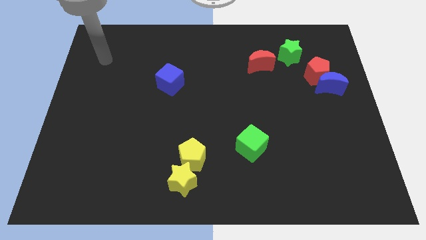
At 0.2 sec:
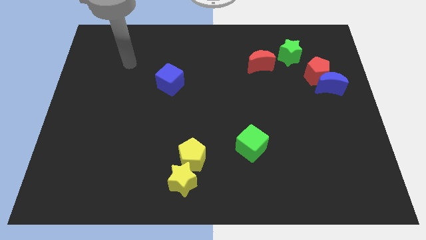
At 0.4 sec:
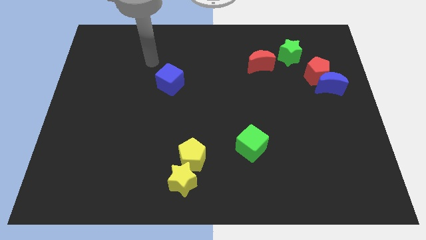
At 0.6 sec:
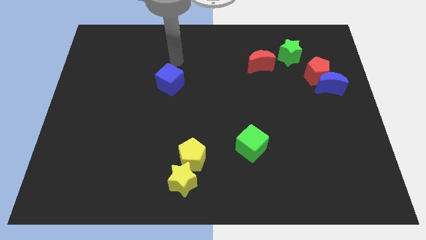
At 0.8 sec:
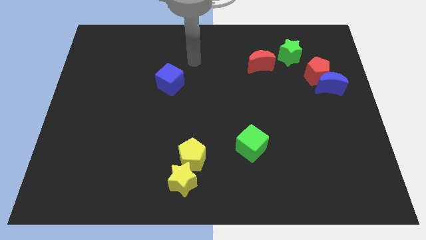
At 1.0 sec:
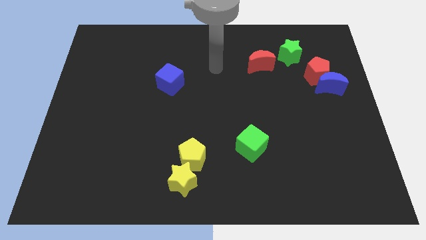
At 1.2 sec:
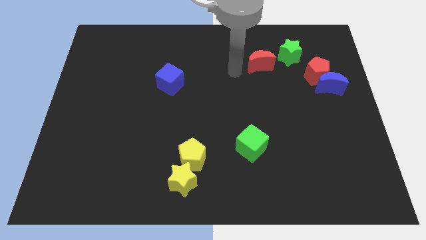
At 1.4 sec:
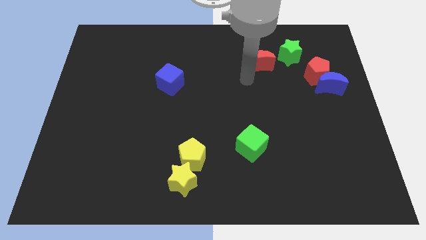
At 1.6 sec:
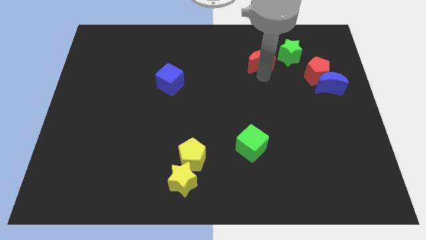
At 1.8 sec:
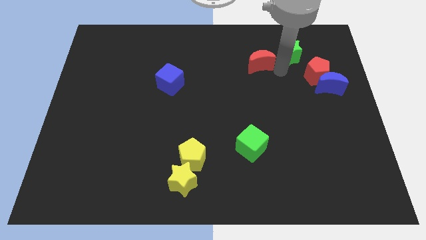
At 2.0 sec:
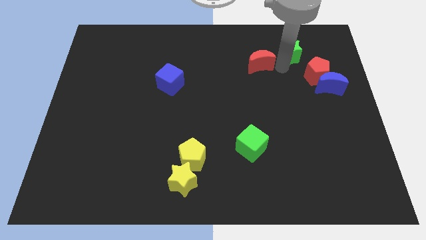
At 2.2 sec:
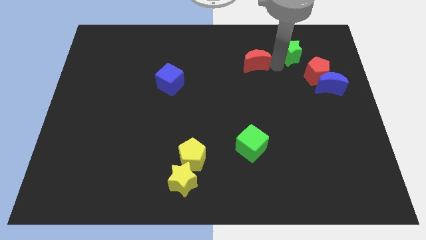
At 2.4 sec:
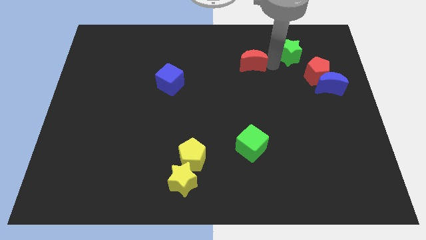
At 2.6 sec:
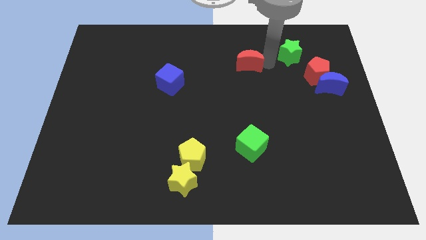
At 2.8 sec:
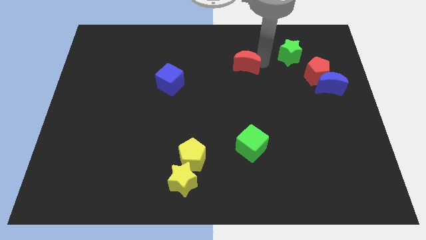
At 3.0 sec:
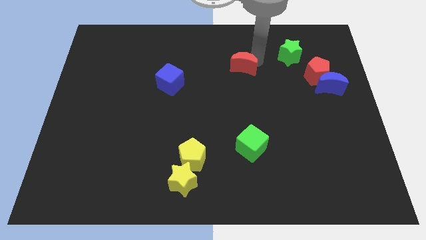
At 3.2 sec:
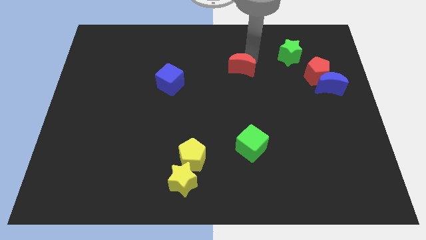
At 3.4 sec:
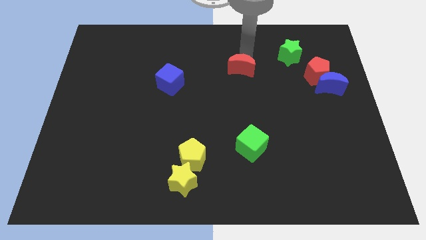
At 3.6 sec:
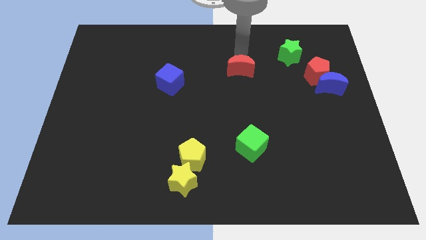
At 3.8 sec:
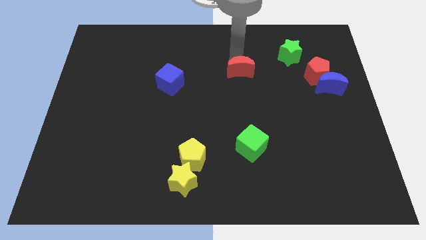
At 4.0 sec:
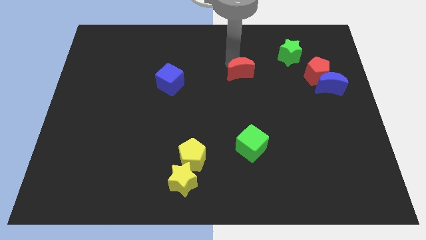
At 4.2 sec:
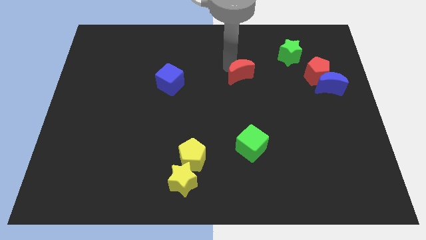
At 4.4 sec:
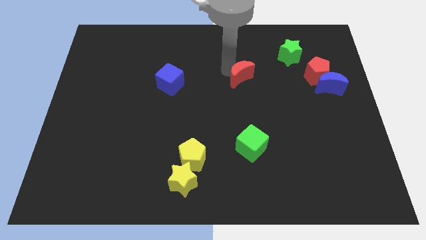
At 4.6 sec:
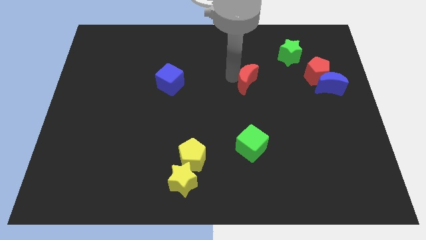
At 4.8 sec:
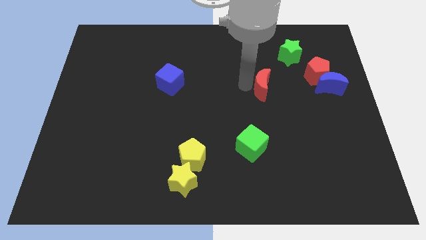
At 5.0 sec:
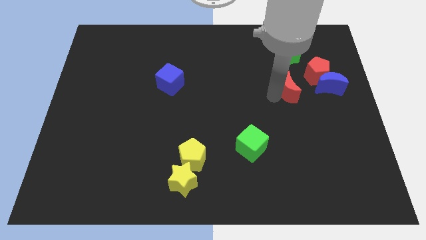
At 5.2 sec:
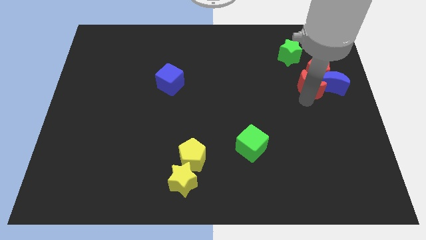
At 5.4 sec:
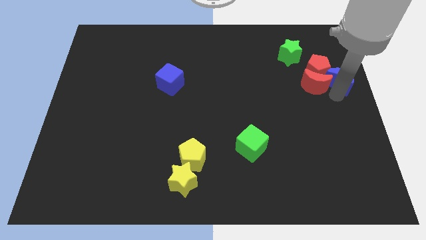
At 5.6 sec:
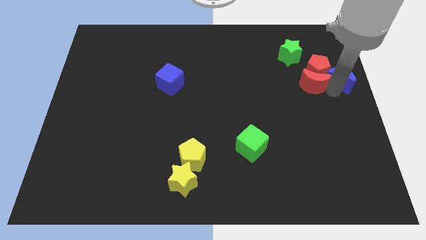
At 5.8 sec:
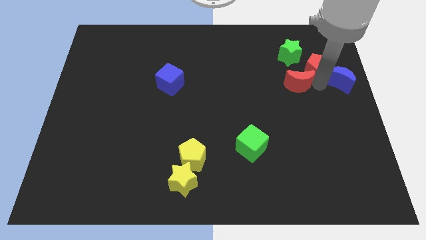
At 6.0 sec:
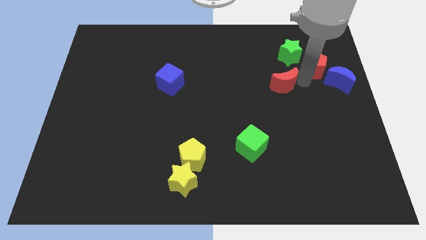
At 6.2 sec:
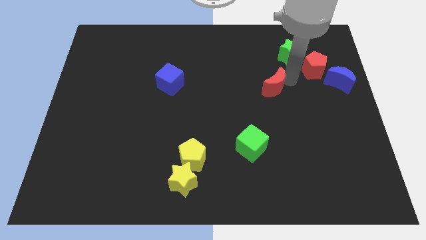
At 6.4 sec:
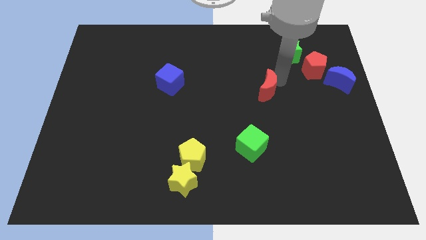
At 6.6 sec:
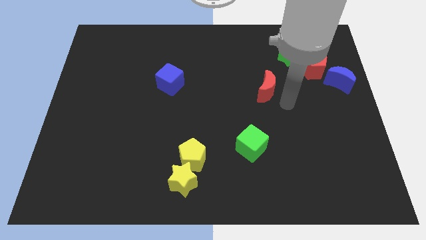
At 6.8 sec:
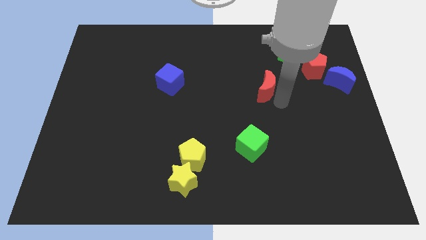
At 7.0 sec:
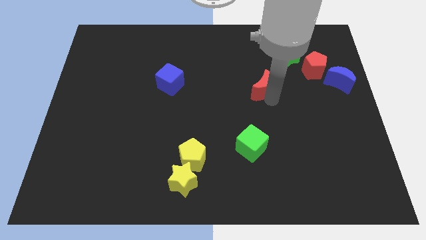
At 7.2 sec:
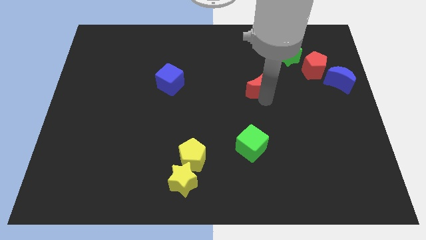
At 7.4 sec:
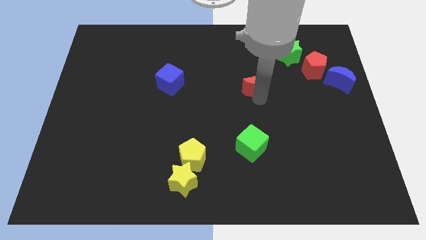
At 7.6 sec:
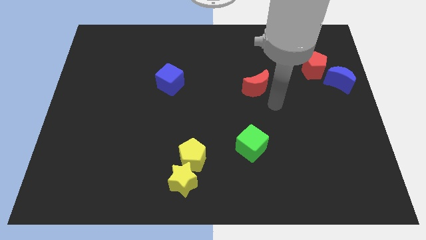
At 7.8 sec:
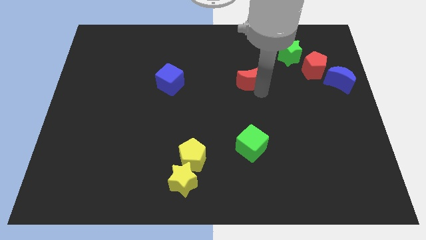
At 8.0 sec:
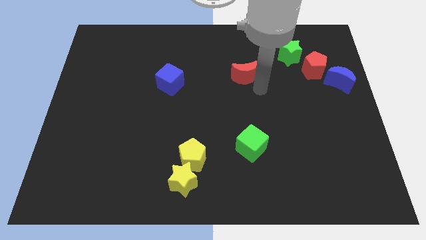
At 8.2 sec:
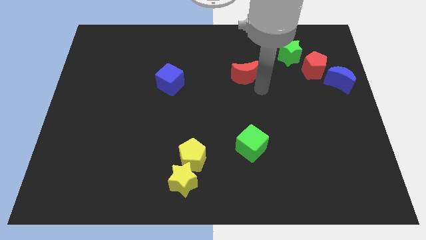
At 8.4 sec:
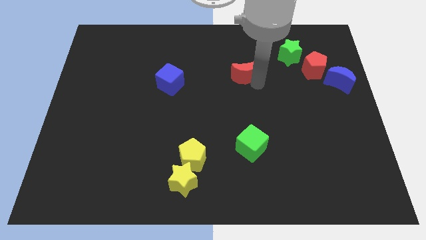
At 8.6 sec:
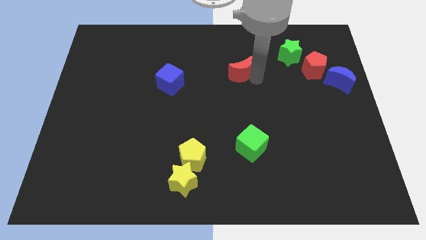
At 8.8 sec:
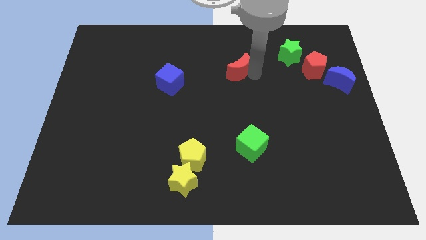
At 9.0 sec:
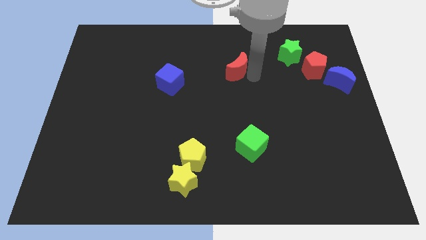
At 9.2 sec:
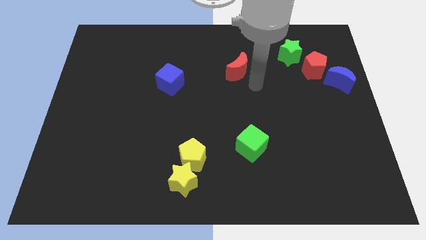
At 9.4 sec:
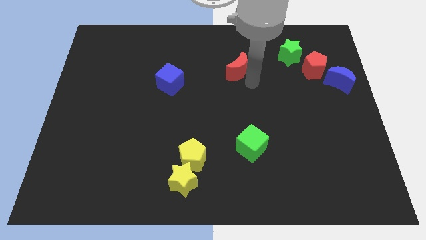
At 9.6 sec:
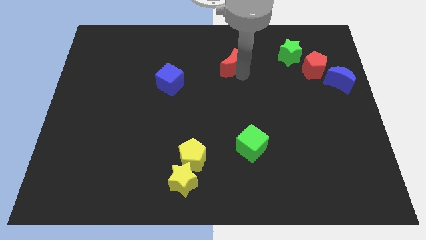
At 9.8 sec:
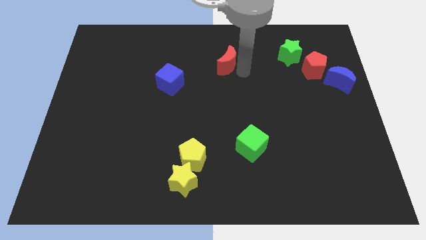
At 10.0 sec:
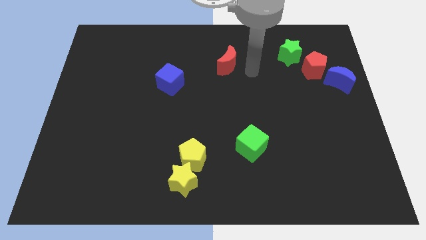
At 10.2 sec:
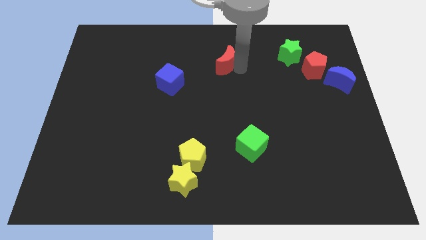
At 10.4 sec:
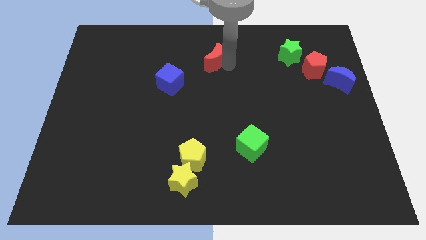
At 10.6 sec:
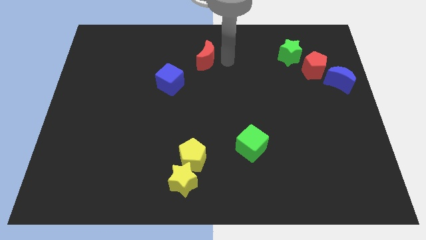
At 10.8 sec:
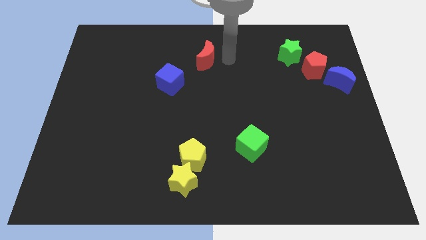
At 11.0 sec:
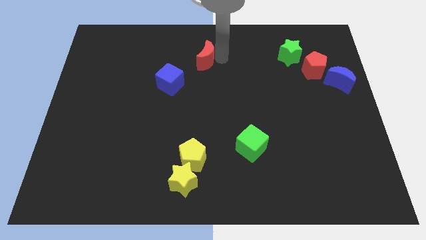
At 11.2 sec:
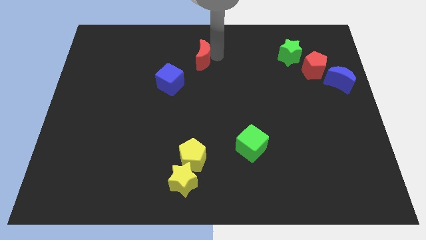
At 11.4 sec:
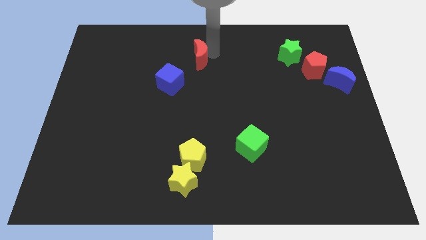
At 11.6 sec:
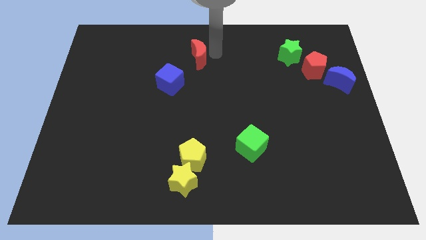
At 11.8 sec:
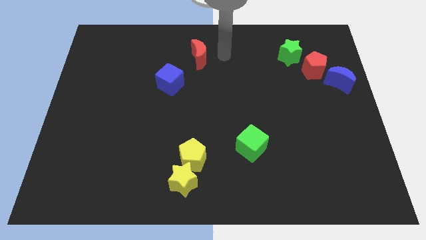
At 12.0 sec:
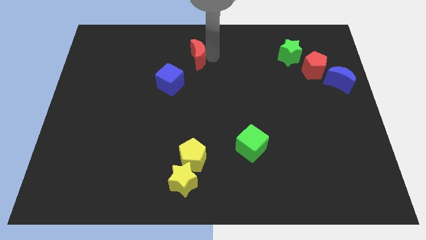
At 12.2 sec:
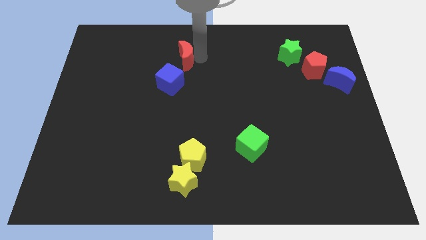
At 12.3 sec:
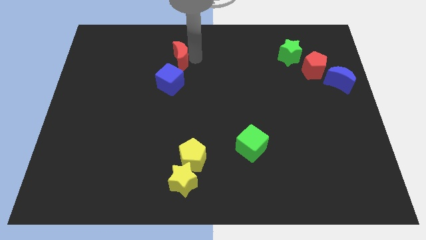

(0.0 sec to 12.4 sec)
push the red moon left

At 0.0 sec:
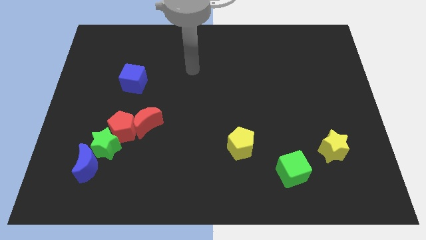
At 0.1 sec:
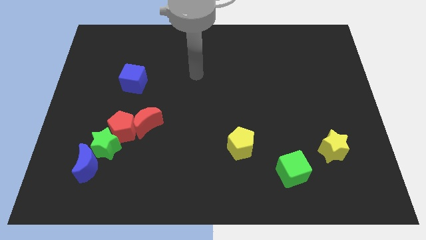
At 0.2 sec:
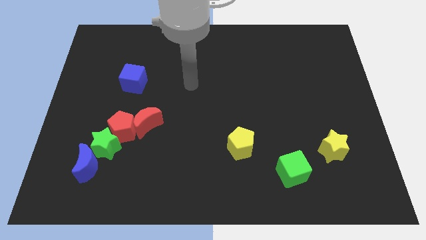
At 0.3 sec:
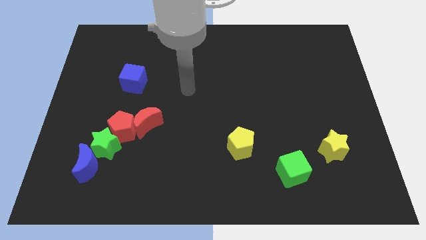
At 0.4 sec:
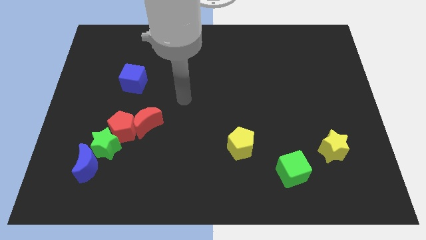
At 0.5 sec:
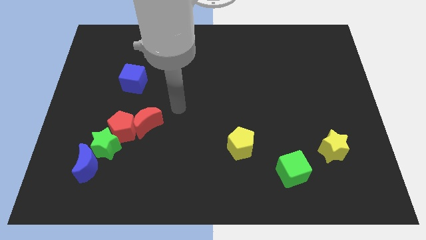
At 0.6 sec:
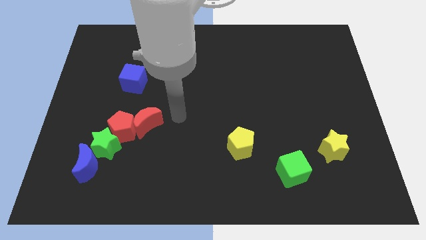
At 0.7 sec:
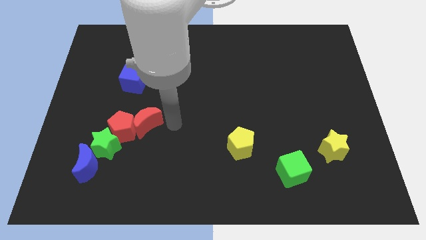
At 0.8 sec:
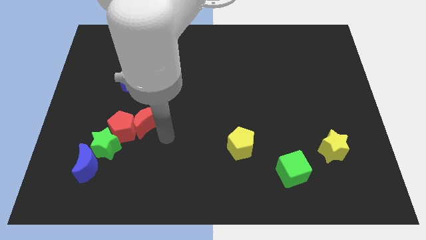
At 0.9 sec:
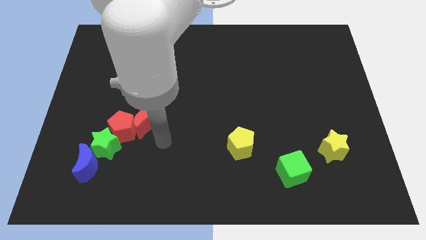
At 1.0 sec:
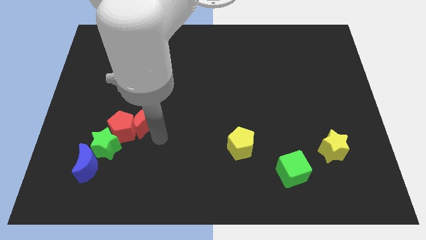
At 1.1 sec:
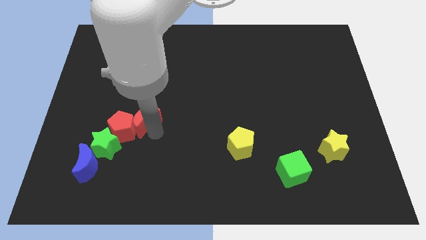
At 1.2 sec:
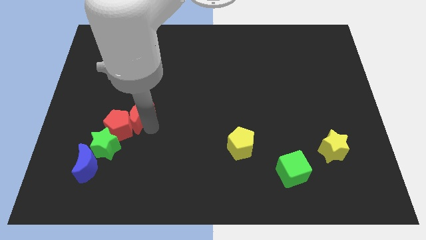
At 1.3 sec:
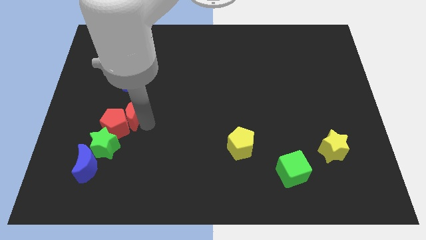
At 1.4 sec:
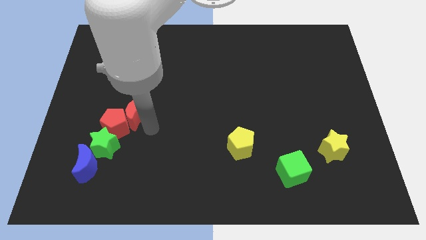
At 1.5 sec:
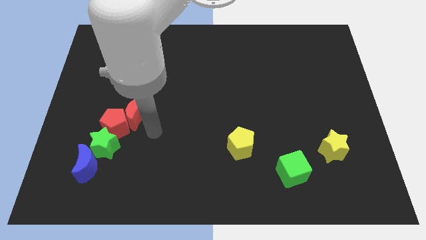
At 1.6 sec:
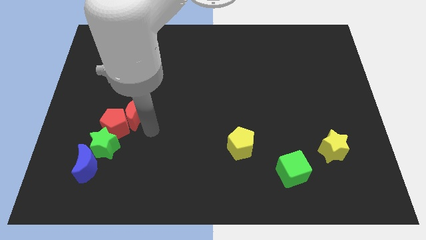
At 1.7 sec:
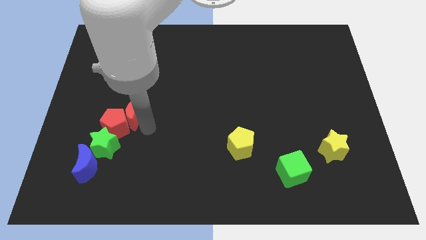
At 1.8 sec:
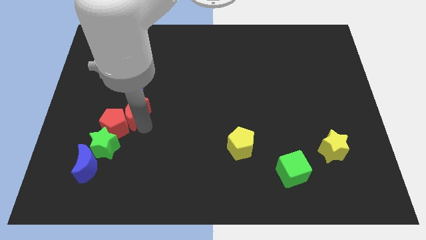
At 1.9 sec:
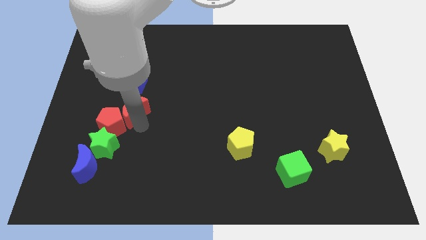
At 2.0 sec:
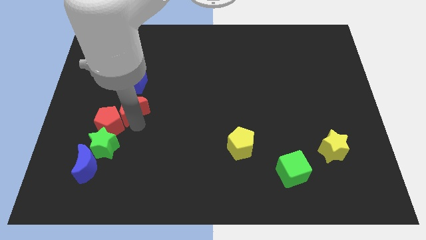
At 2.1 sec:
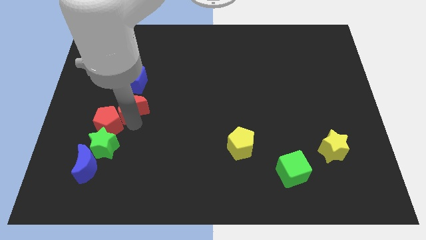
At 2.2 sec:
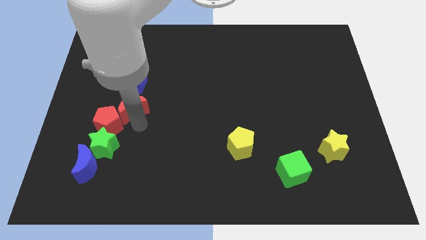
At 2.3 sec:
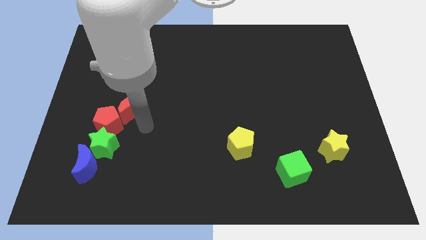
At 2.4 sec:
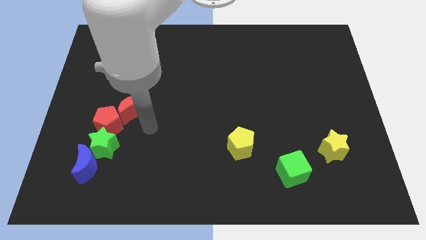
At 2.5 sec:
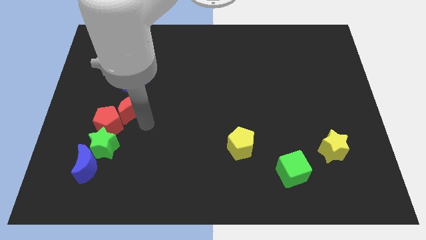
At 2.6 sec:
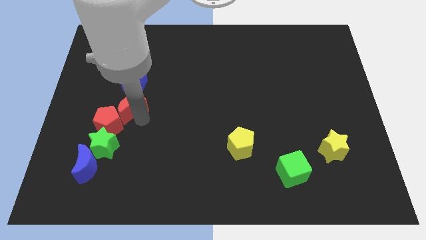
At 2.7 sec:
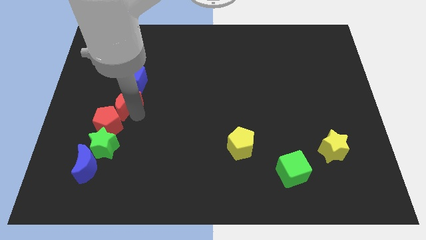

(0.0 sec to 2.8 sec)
slide the red moon up and then to the left somewhat
